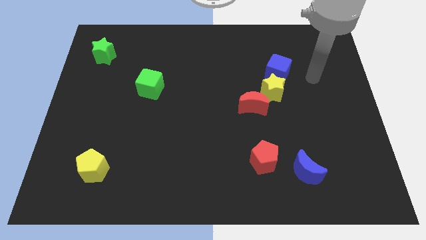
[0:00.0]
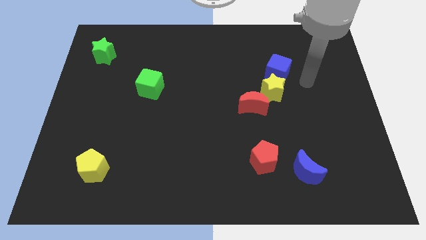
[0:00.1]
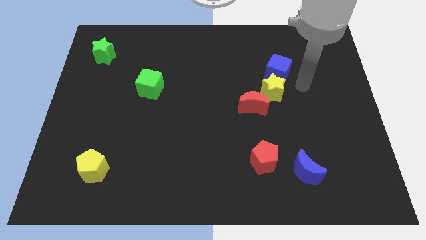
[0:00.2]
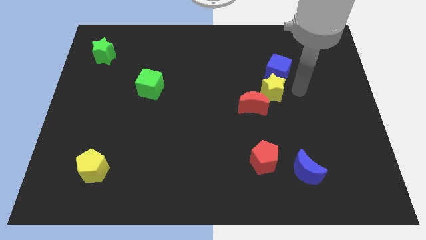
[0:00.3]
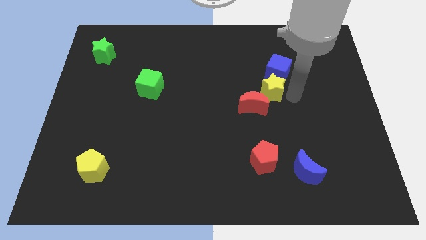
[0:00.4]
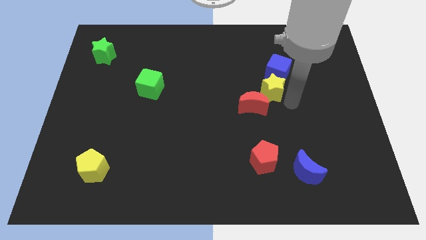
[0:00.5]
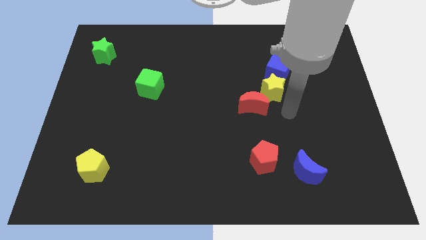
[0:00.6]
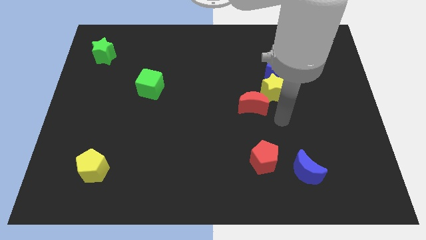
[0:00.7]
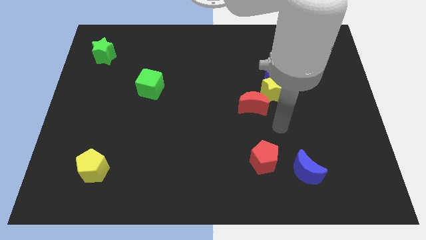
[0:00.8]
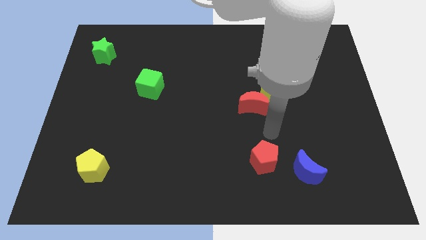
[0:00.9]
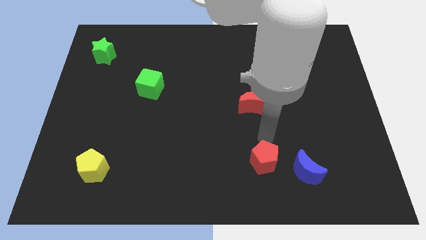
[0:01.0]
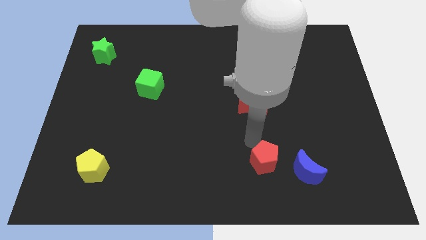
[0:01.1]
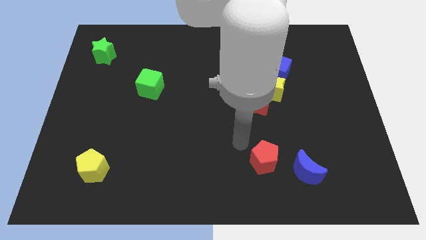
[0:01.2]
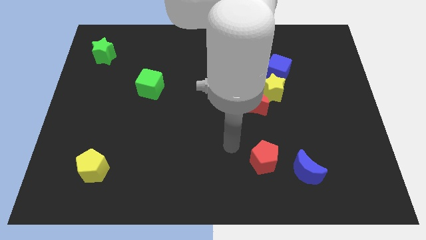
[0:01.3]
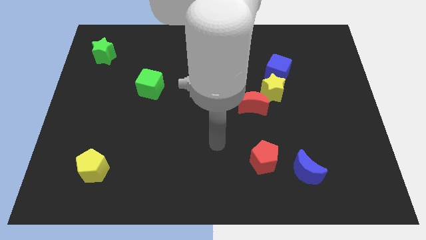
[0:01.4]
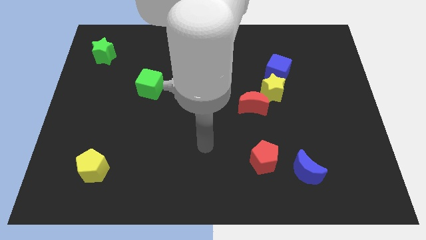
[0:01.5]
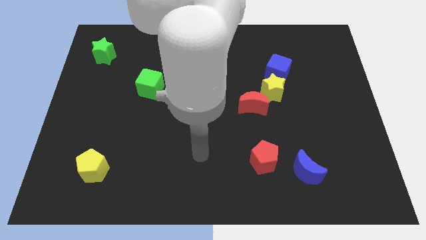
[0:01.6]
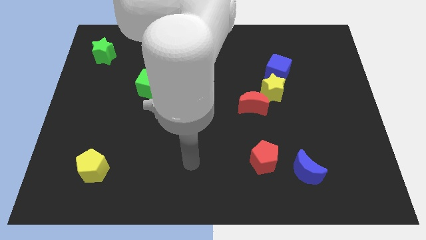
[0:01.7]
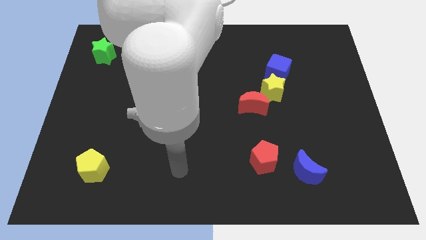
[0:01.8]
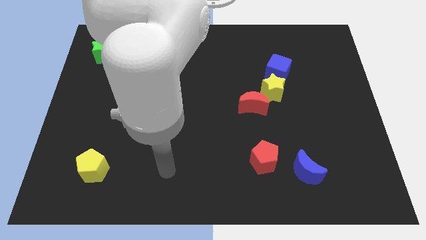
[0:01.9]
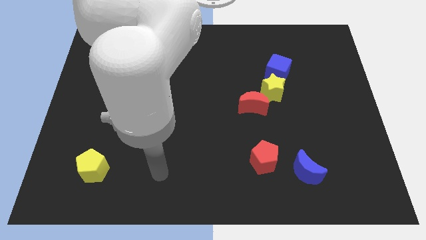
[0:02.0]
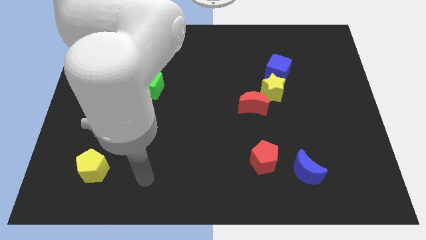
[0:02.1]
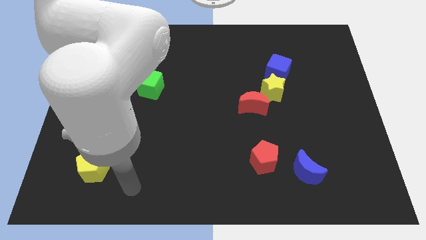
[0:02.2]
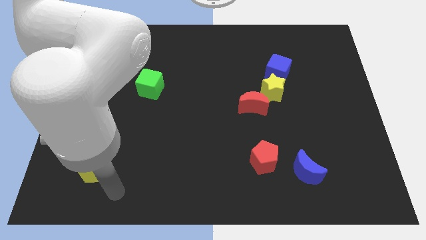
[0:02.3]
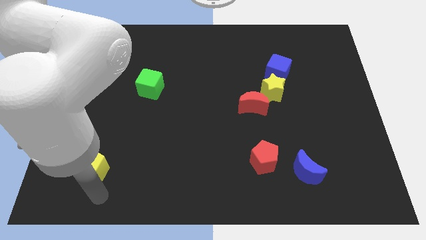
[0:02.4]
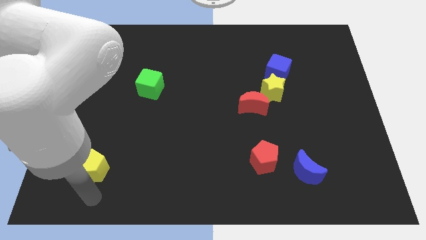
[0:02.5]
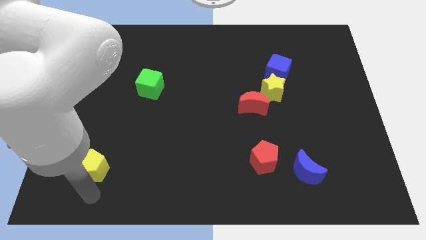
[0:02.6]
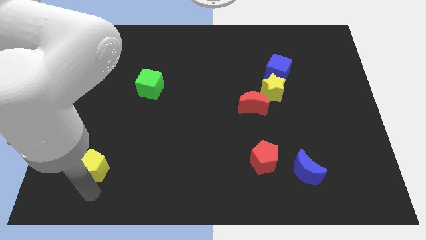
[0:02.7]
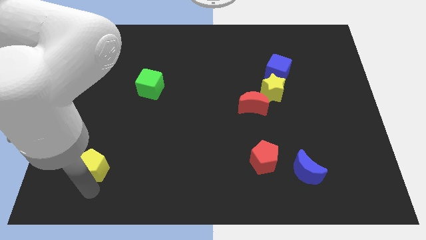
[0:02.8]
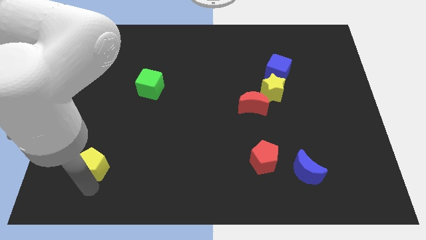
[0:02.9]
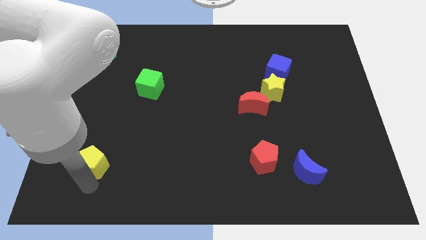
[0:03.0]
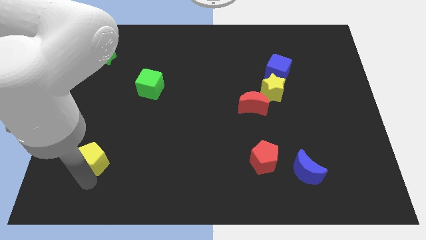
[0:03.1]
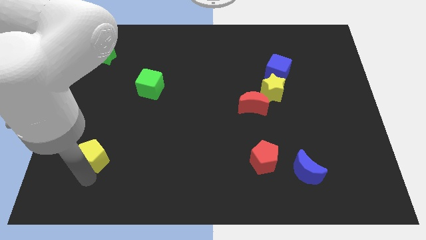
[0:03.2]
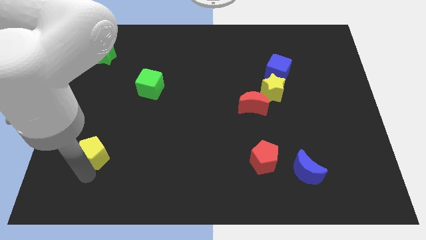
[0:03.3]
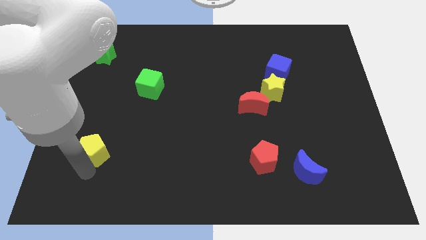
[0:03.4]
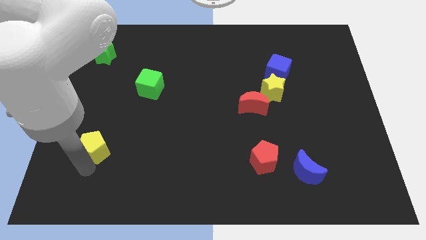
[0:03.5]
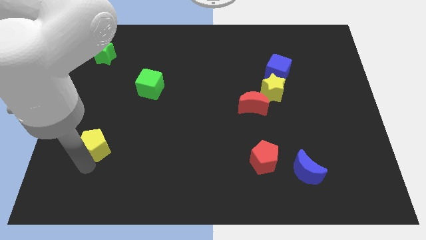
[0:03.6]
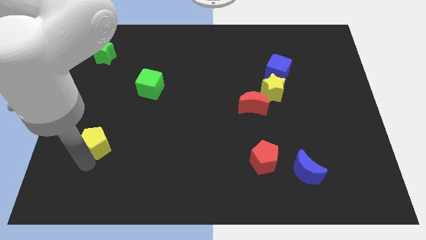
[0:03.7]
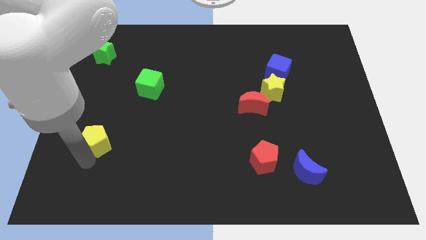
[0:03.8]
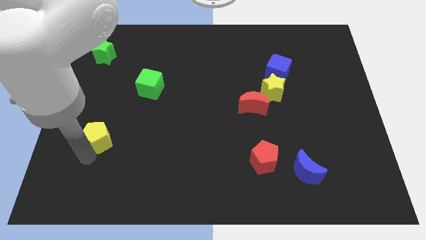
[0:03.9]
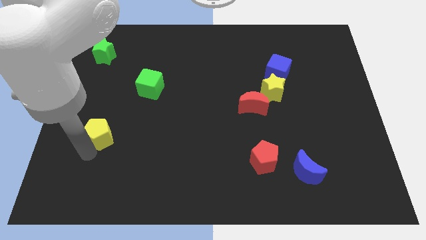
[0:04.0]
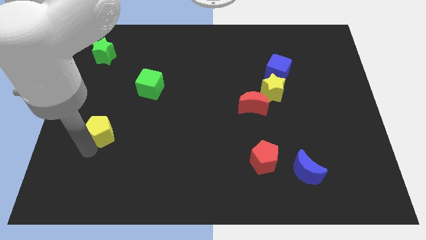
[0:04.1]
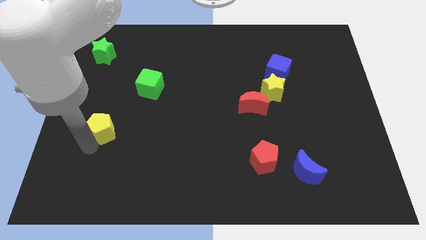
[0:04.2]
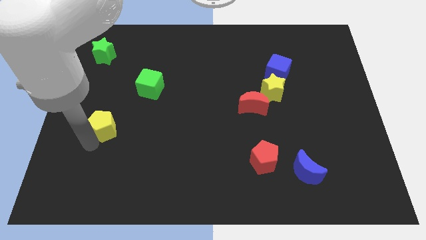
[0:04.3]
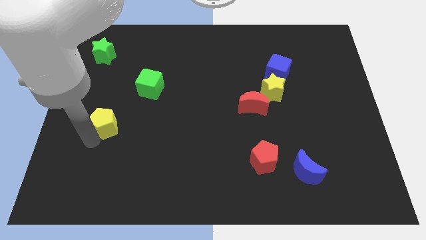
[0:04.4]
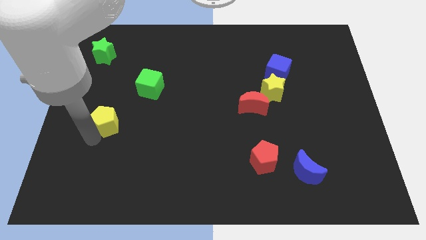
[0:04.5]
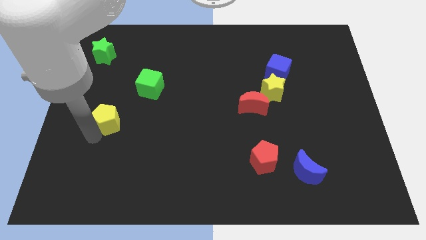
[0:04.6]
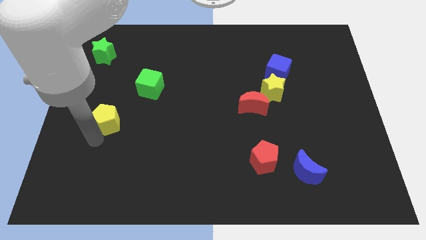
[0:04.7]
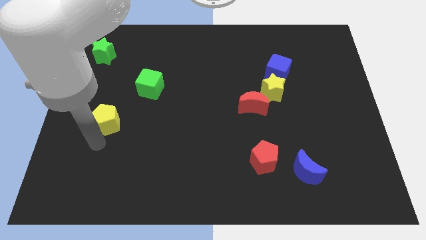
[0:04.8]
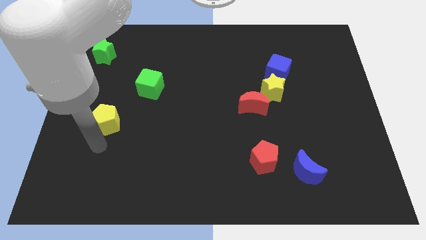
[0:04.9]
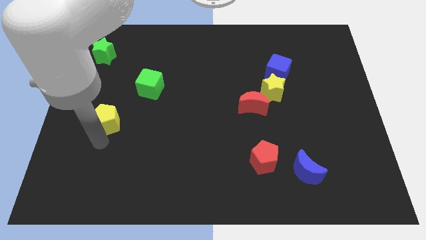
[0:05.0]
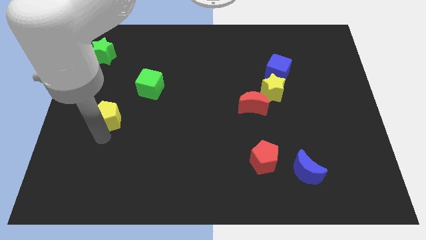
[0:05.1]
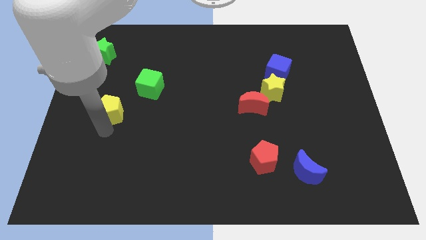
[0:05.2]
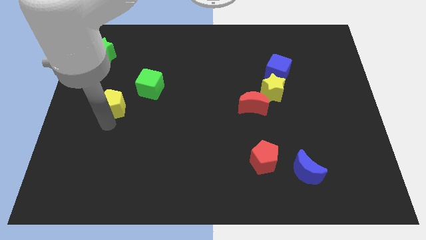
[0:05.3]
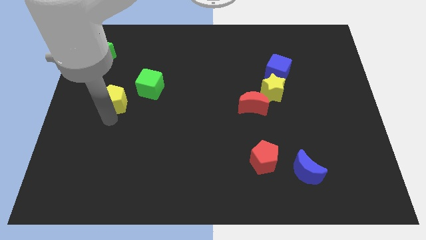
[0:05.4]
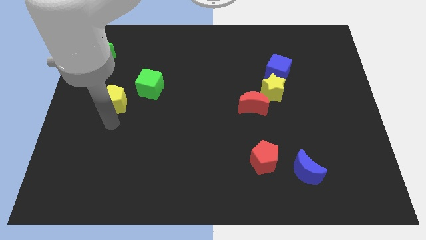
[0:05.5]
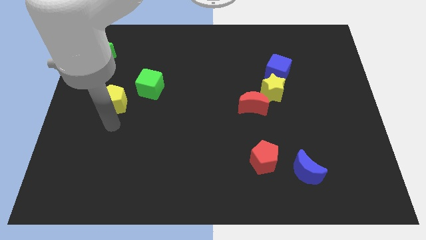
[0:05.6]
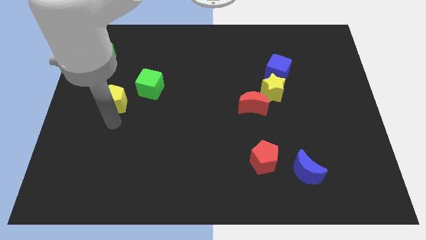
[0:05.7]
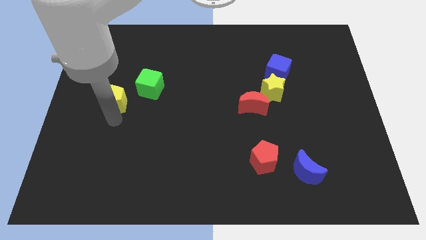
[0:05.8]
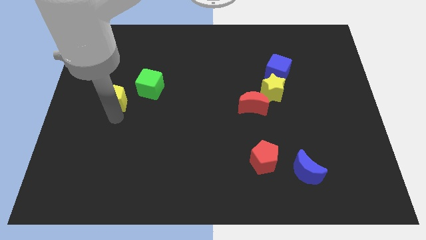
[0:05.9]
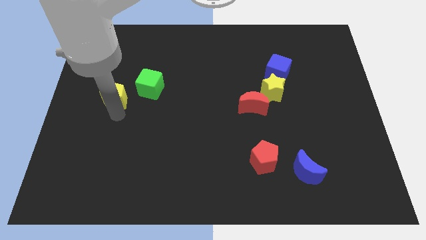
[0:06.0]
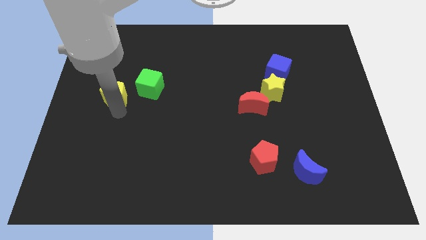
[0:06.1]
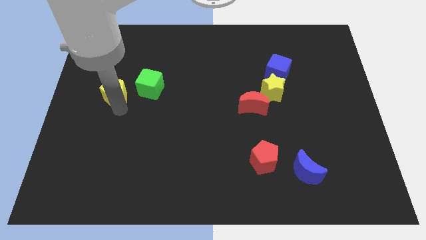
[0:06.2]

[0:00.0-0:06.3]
slide the yellow pentagon up

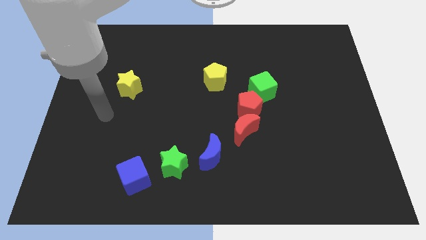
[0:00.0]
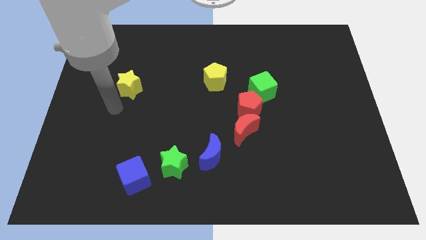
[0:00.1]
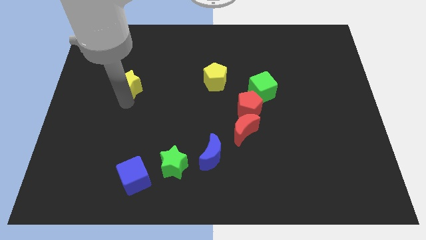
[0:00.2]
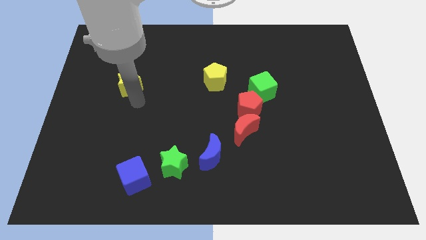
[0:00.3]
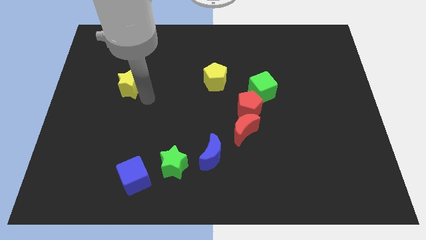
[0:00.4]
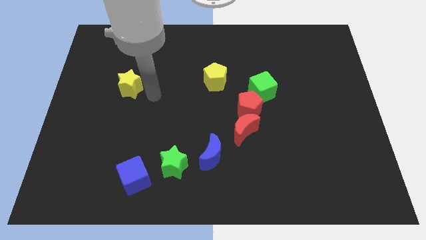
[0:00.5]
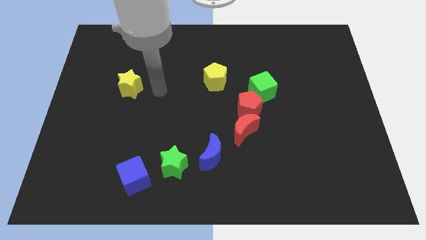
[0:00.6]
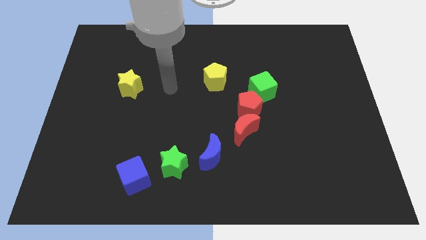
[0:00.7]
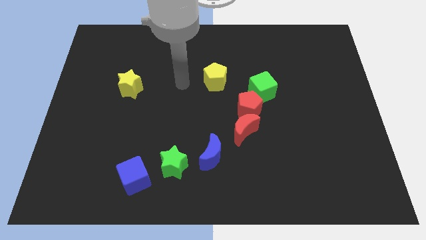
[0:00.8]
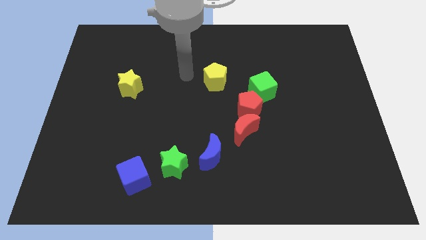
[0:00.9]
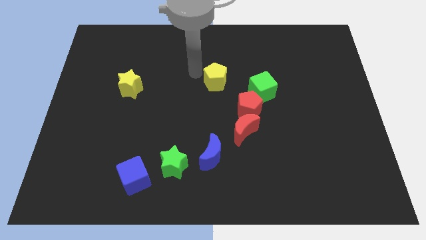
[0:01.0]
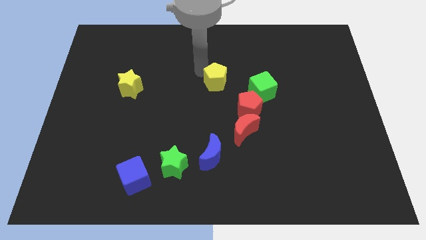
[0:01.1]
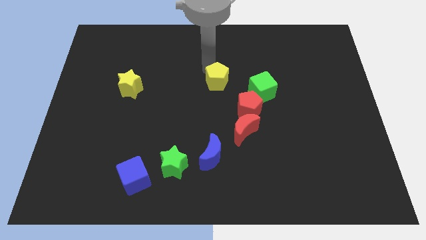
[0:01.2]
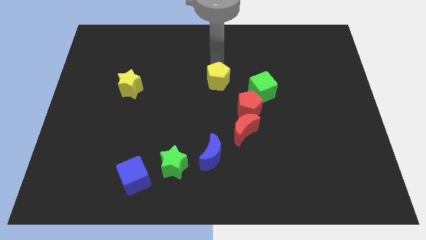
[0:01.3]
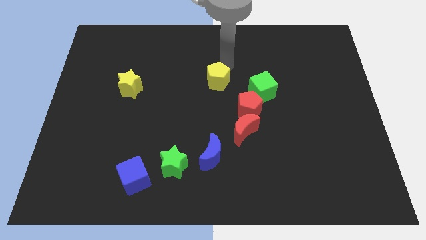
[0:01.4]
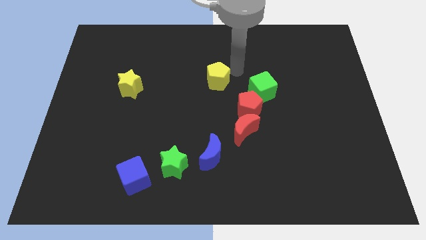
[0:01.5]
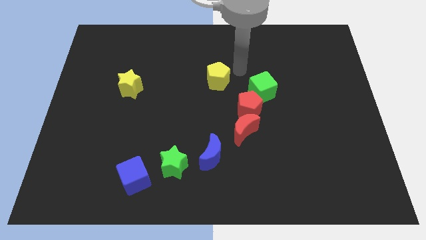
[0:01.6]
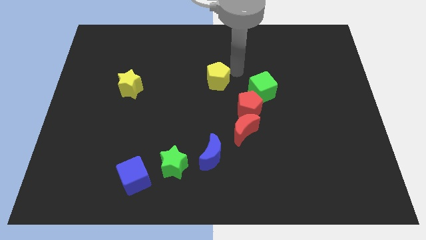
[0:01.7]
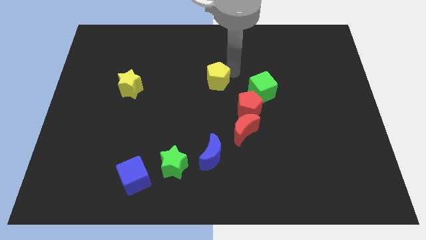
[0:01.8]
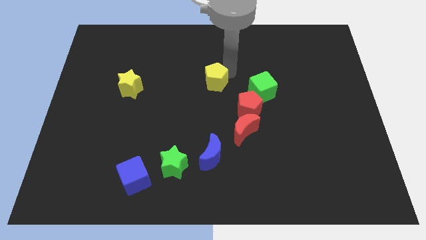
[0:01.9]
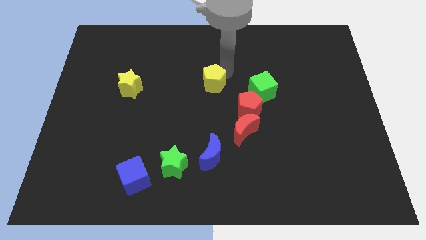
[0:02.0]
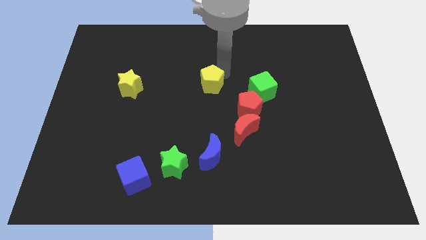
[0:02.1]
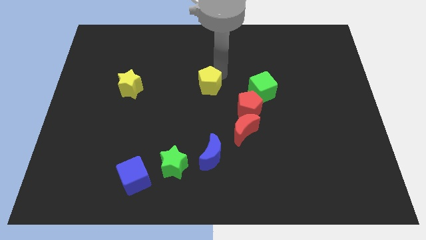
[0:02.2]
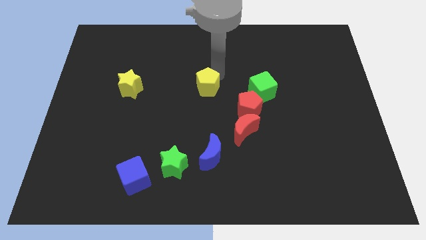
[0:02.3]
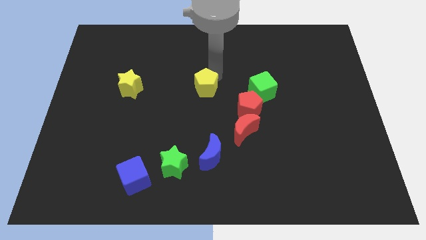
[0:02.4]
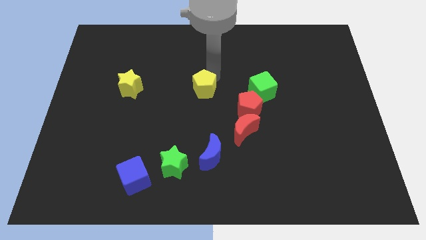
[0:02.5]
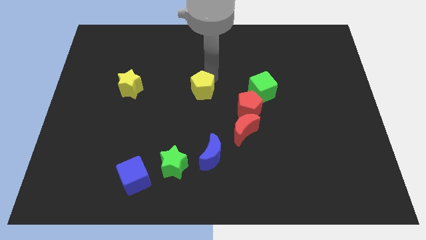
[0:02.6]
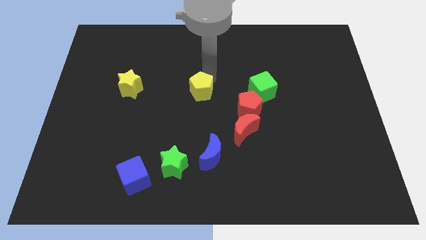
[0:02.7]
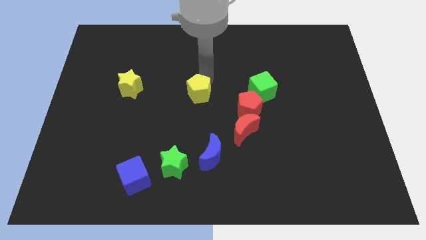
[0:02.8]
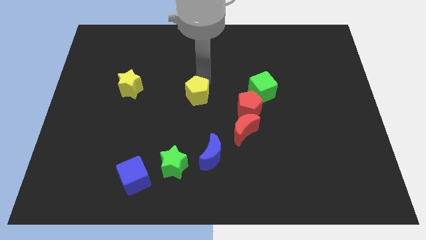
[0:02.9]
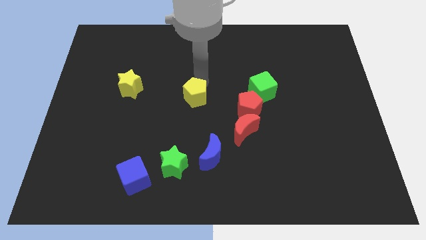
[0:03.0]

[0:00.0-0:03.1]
push the yellow pentagon downwards and then to the left a bit
